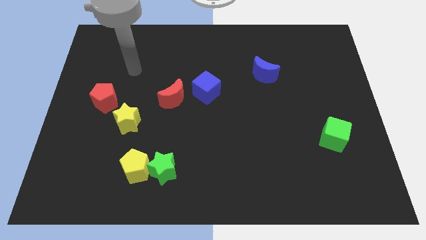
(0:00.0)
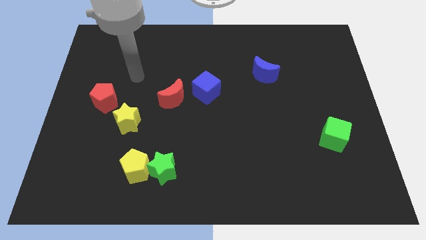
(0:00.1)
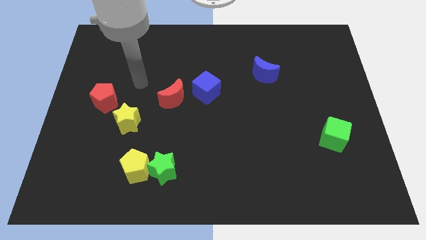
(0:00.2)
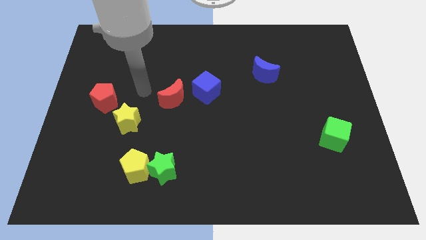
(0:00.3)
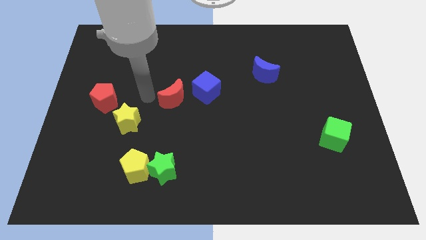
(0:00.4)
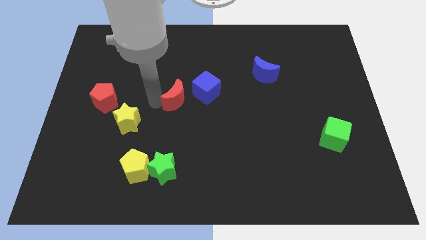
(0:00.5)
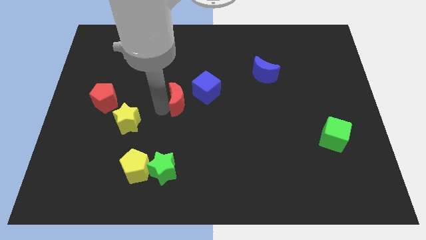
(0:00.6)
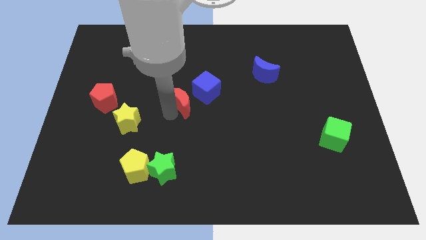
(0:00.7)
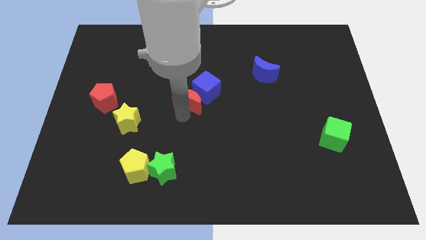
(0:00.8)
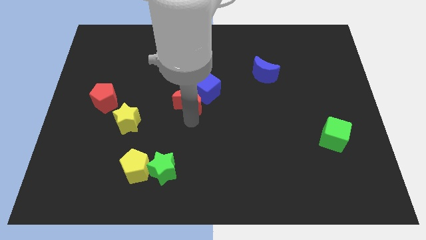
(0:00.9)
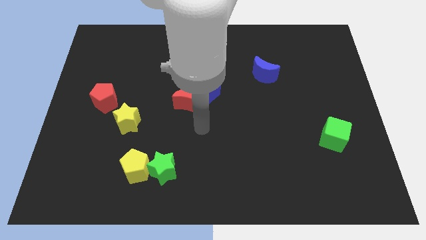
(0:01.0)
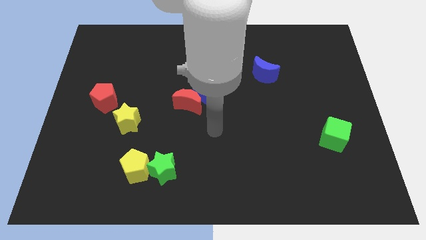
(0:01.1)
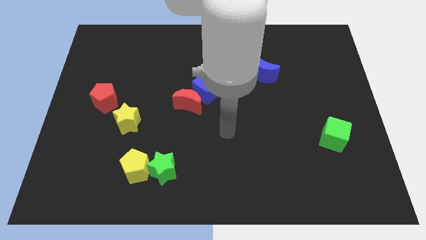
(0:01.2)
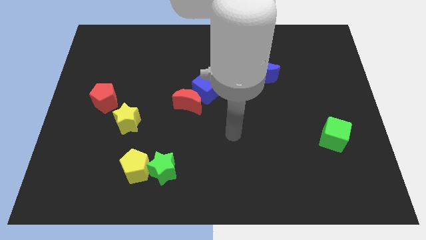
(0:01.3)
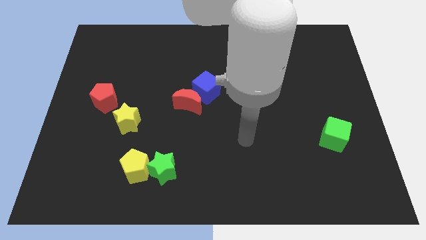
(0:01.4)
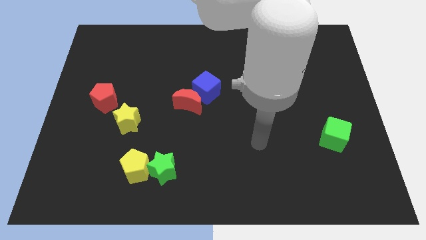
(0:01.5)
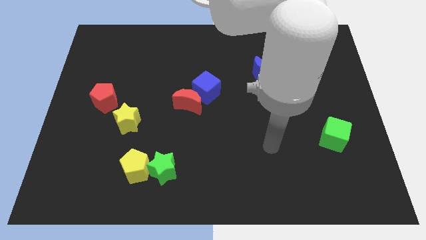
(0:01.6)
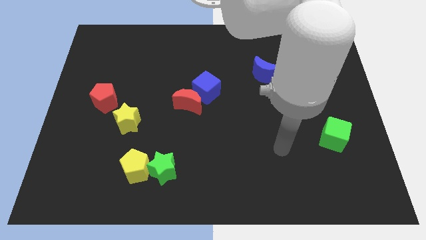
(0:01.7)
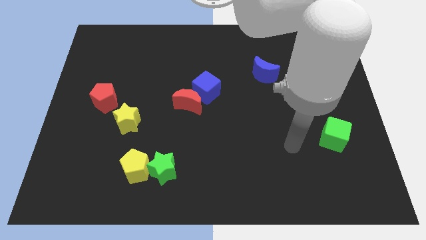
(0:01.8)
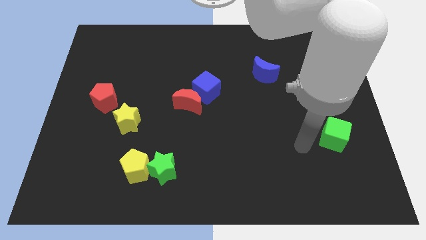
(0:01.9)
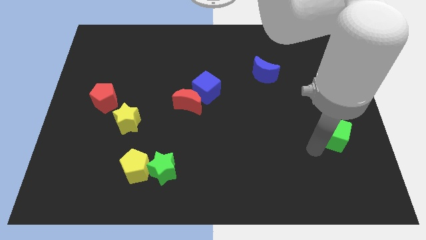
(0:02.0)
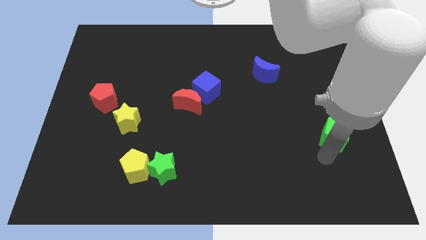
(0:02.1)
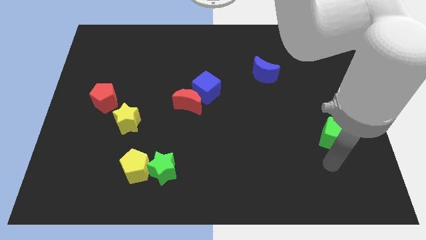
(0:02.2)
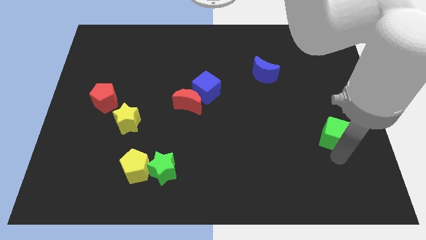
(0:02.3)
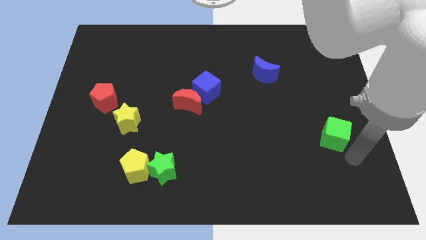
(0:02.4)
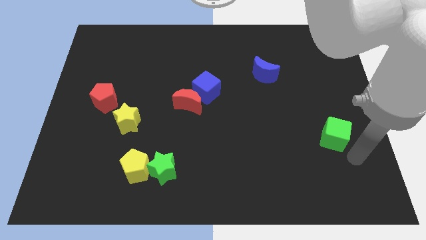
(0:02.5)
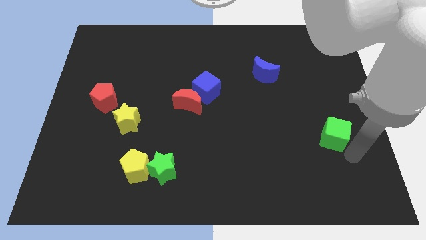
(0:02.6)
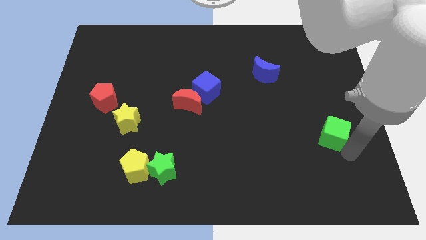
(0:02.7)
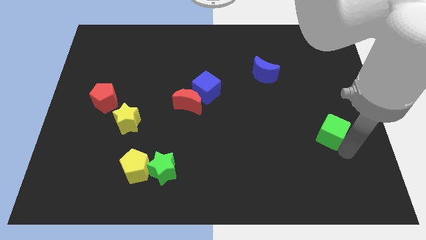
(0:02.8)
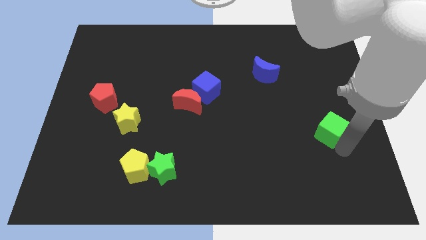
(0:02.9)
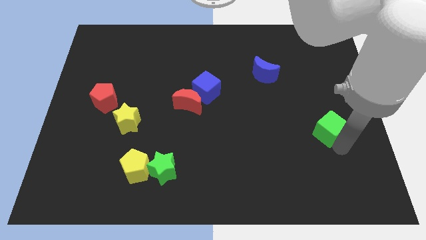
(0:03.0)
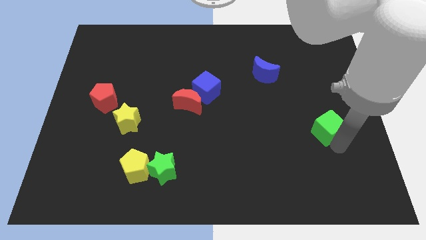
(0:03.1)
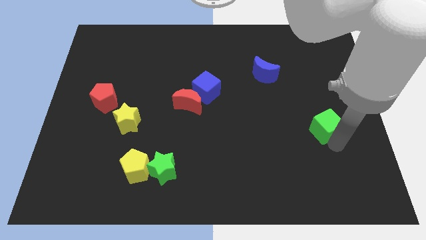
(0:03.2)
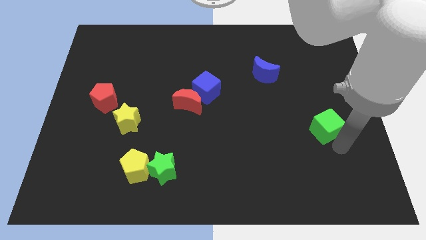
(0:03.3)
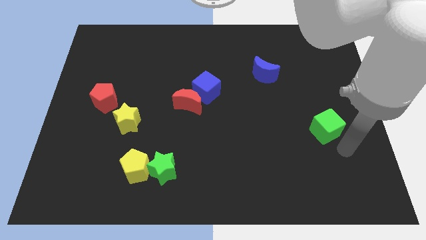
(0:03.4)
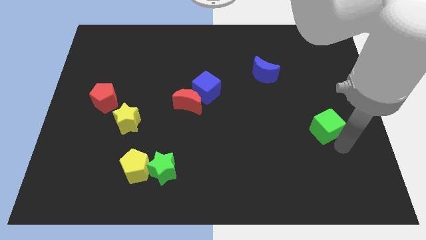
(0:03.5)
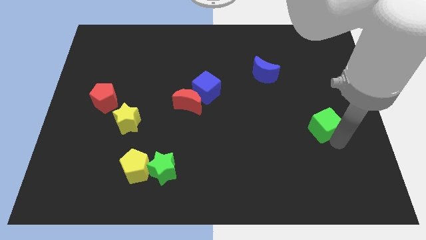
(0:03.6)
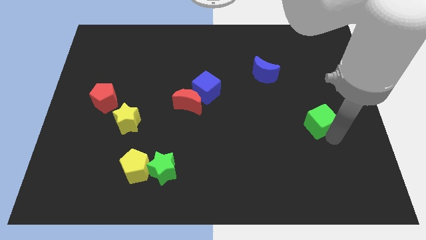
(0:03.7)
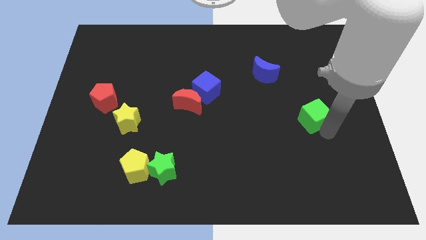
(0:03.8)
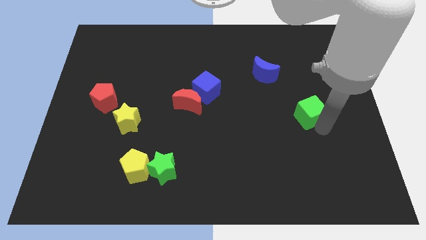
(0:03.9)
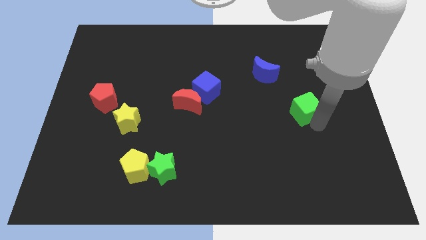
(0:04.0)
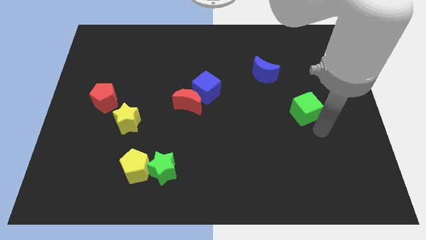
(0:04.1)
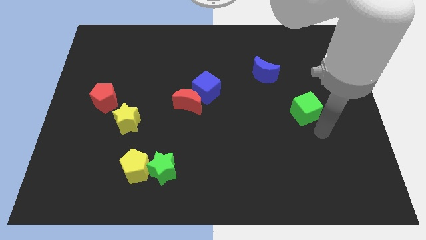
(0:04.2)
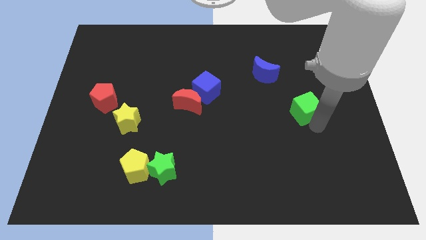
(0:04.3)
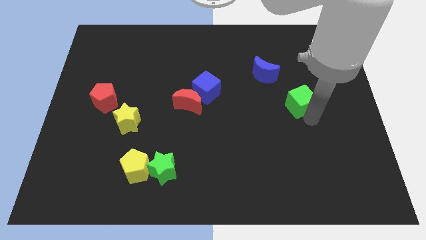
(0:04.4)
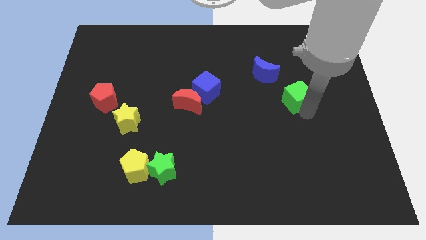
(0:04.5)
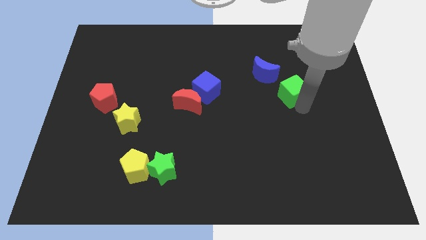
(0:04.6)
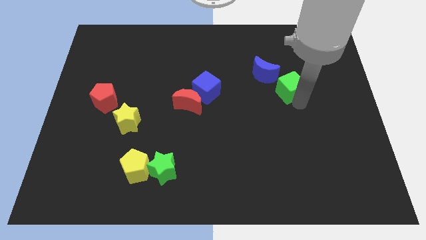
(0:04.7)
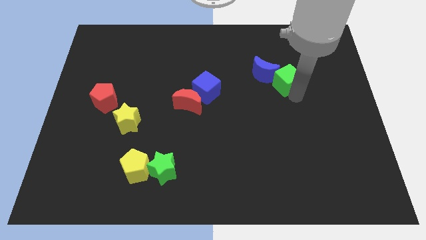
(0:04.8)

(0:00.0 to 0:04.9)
push the green cube next to the blue moon

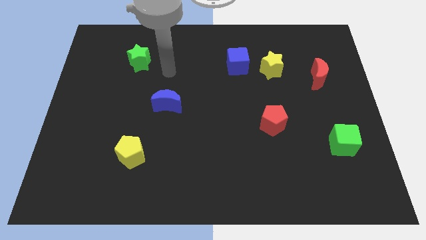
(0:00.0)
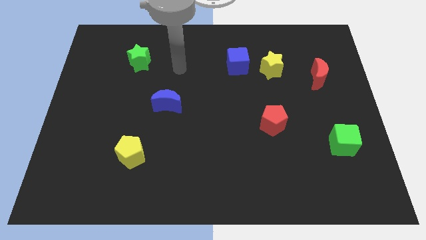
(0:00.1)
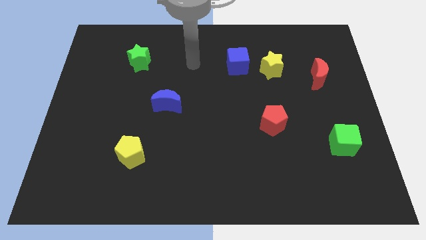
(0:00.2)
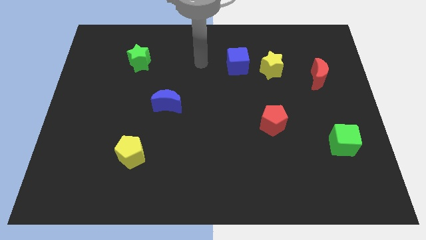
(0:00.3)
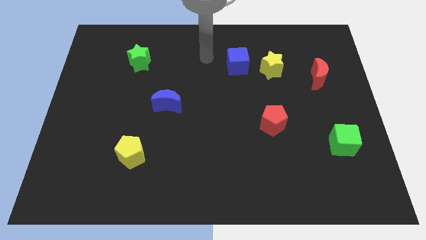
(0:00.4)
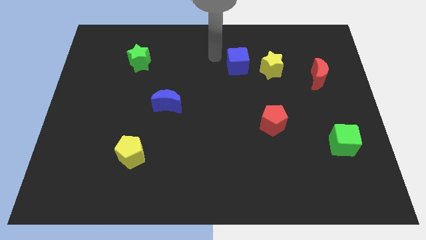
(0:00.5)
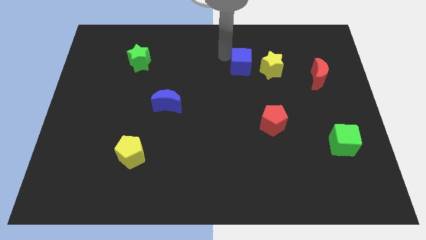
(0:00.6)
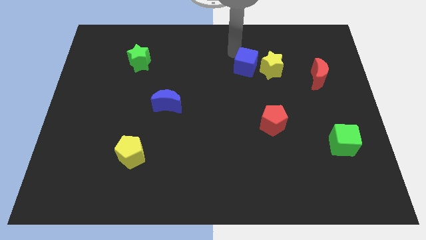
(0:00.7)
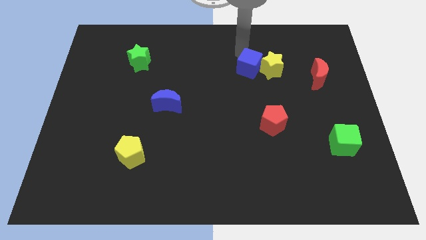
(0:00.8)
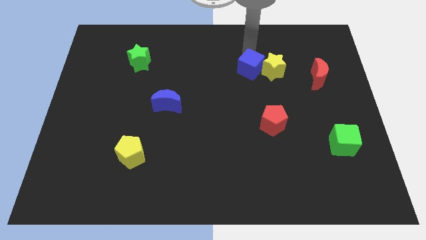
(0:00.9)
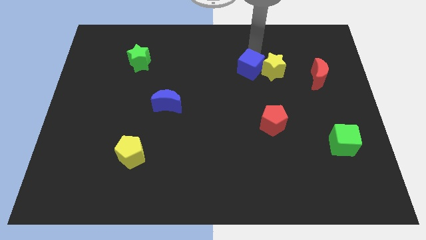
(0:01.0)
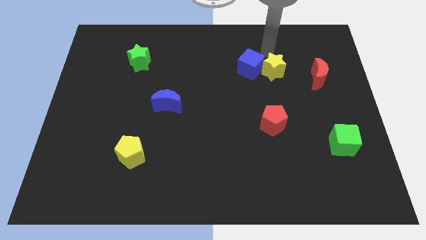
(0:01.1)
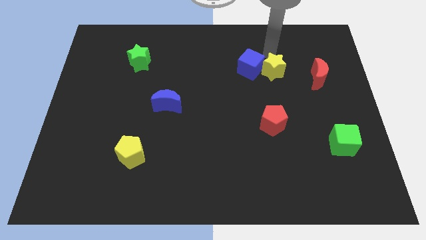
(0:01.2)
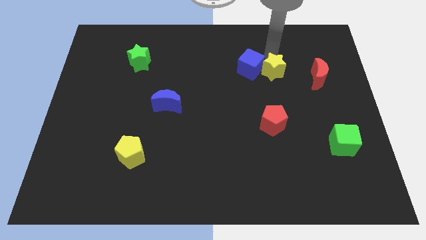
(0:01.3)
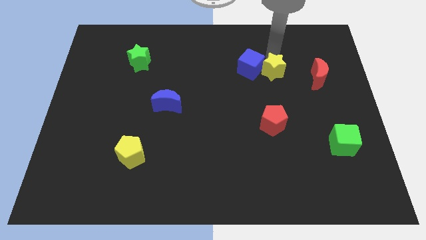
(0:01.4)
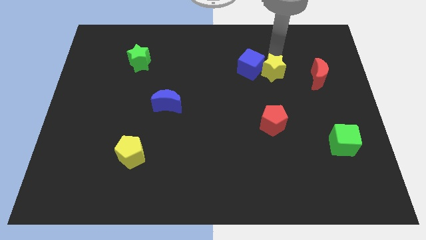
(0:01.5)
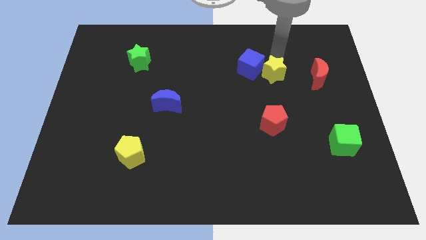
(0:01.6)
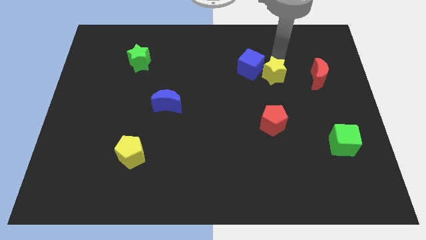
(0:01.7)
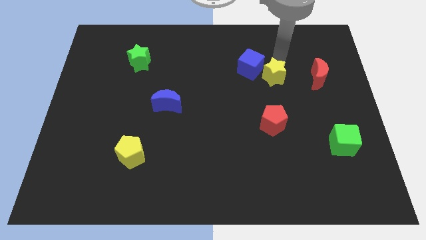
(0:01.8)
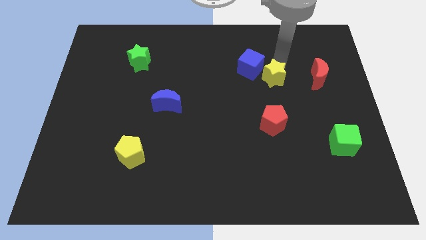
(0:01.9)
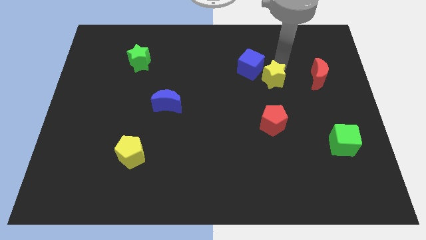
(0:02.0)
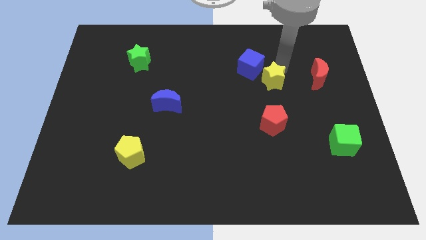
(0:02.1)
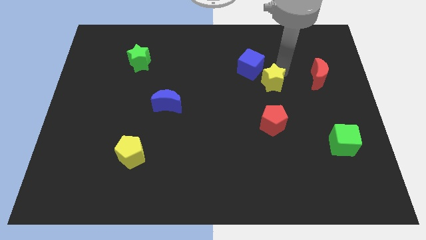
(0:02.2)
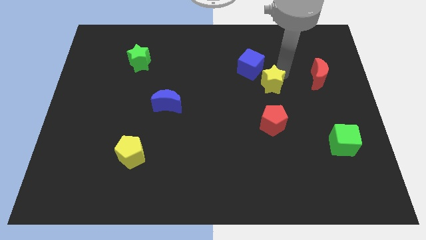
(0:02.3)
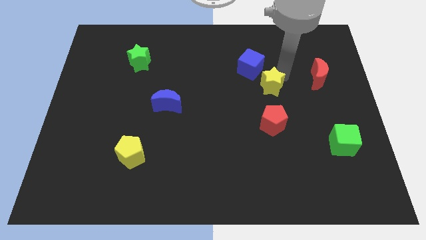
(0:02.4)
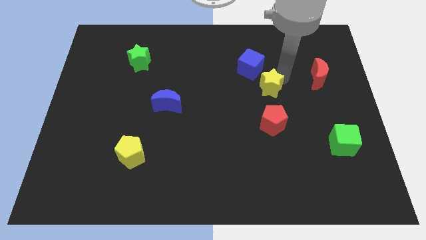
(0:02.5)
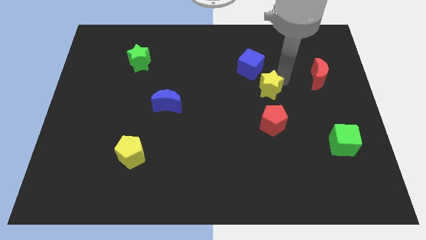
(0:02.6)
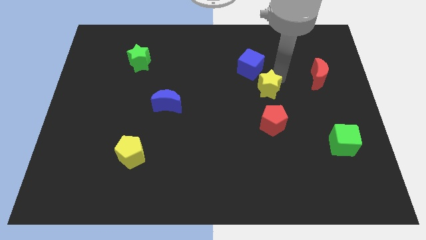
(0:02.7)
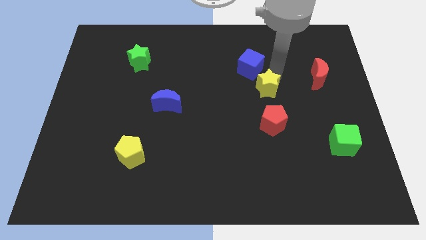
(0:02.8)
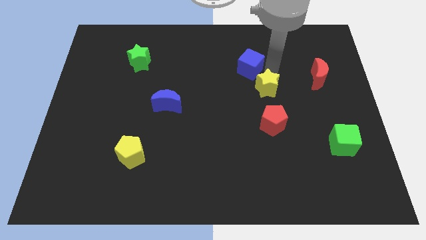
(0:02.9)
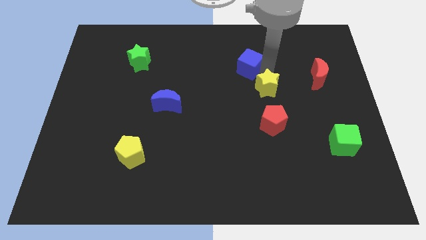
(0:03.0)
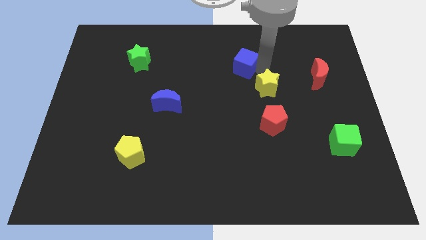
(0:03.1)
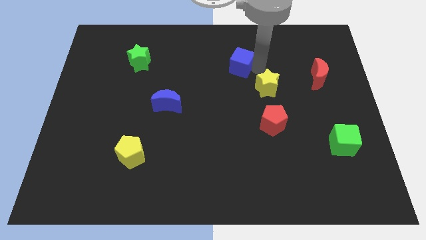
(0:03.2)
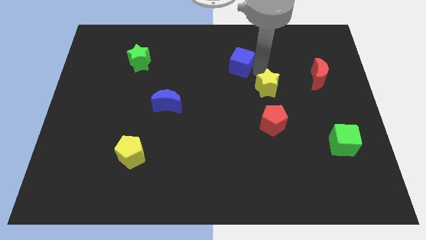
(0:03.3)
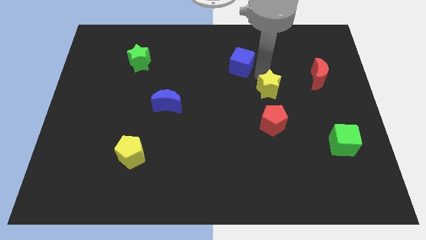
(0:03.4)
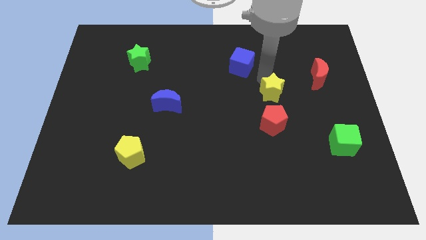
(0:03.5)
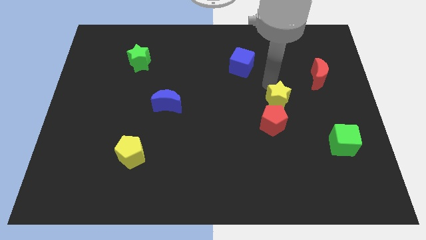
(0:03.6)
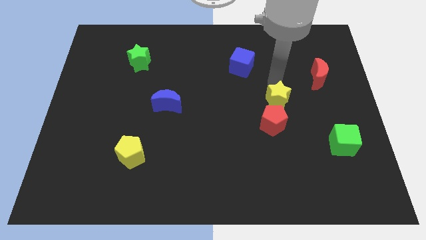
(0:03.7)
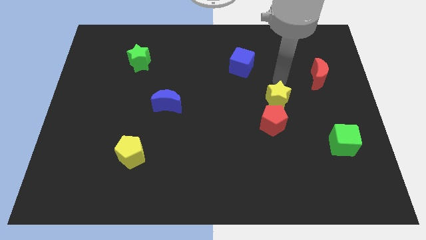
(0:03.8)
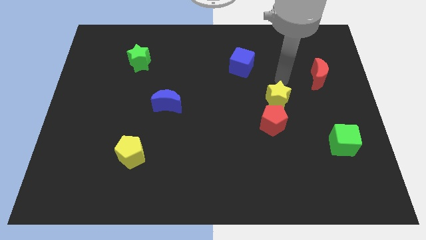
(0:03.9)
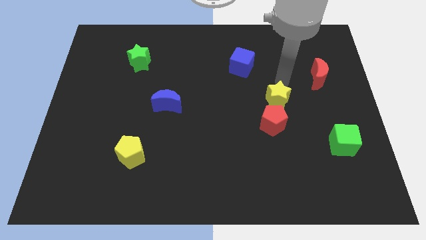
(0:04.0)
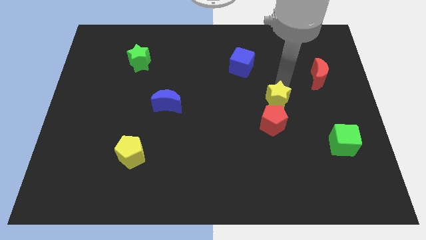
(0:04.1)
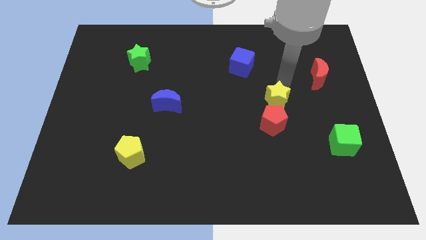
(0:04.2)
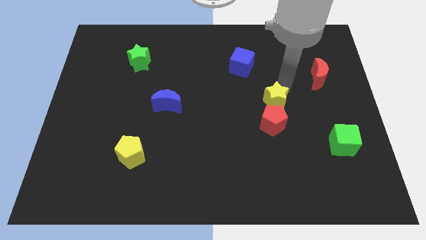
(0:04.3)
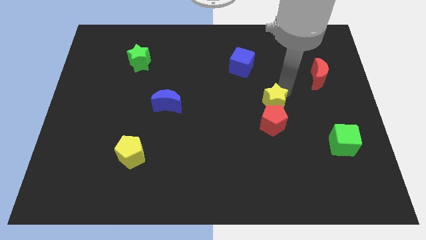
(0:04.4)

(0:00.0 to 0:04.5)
move the yellow star close to the red pentagon
